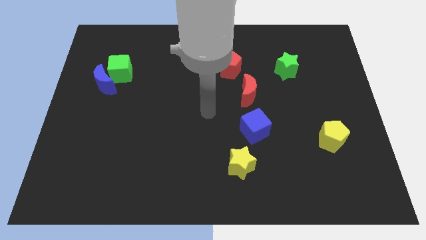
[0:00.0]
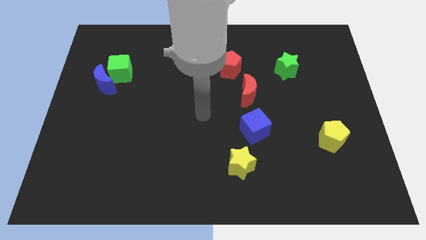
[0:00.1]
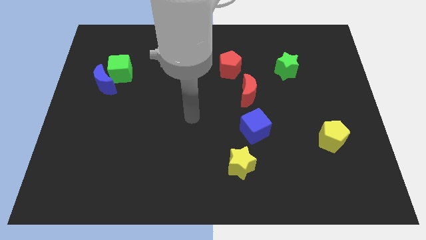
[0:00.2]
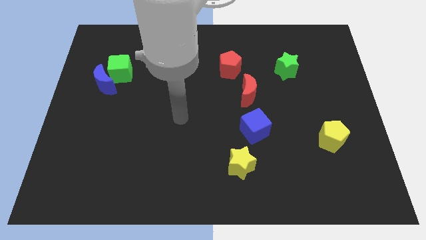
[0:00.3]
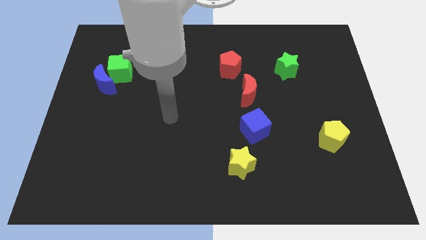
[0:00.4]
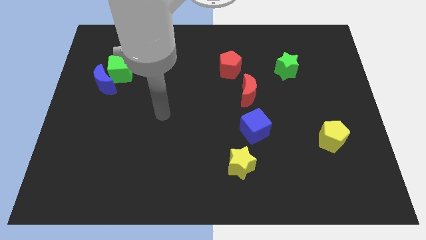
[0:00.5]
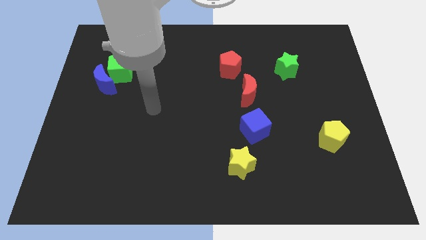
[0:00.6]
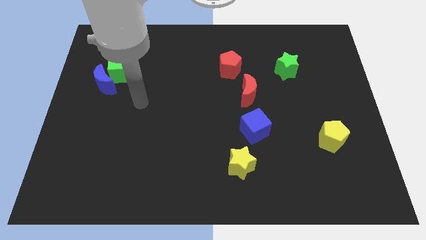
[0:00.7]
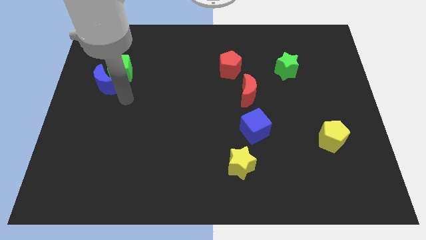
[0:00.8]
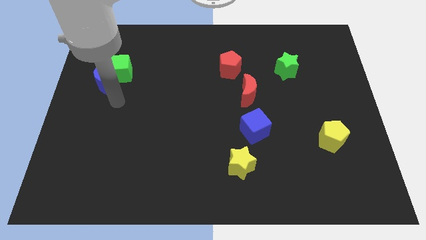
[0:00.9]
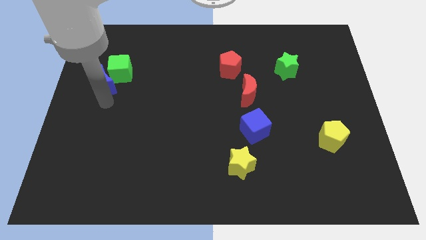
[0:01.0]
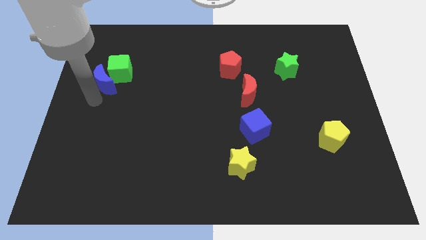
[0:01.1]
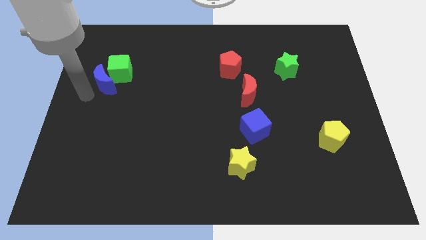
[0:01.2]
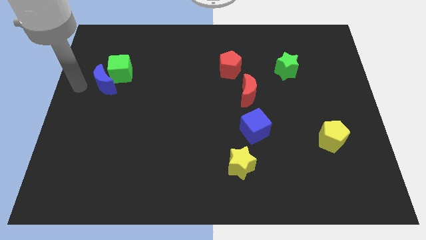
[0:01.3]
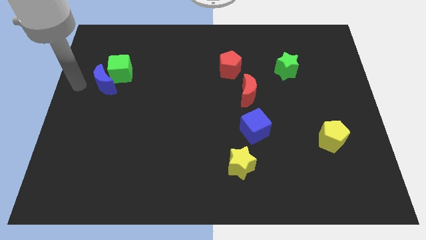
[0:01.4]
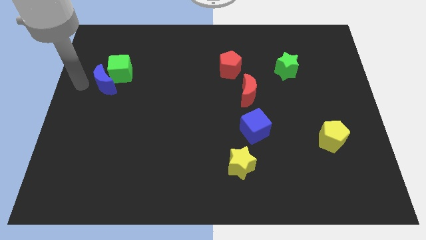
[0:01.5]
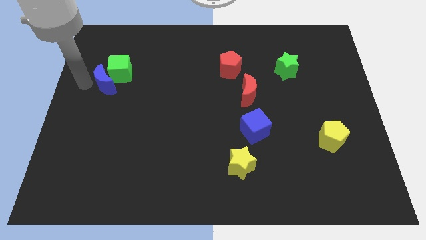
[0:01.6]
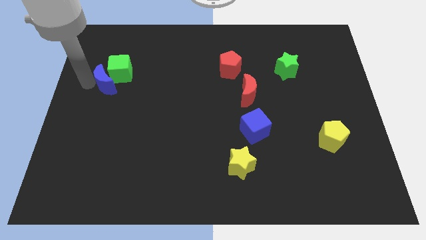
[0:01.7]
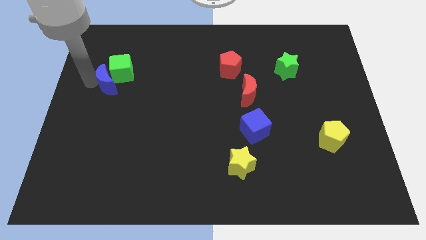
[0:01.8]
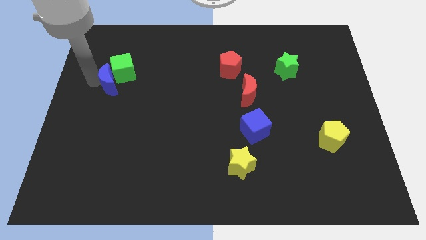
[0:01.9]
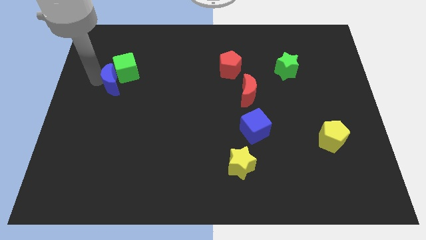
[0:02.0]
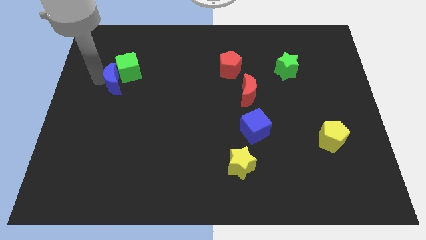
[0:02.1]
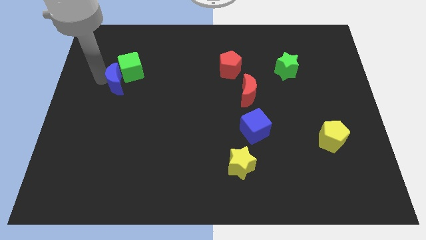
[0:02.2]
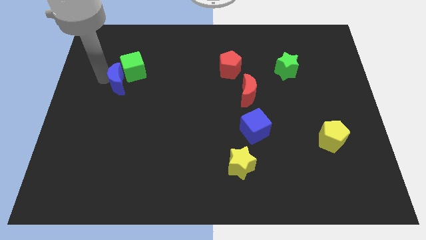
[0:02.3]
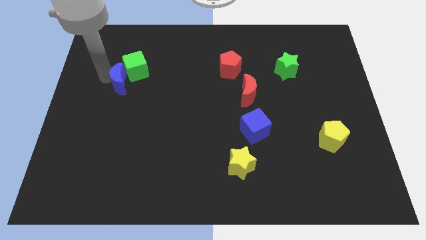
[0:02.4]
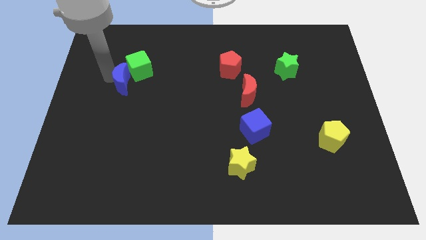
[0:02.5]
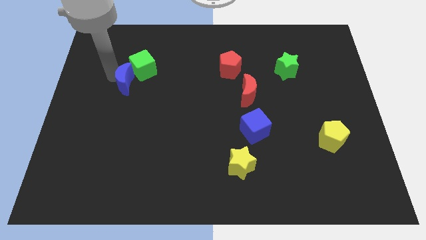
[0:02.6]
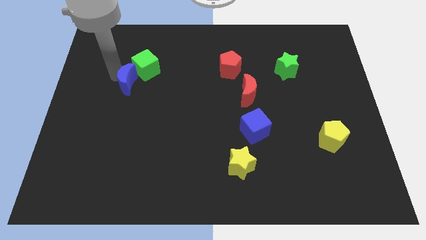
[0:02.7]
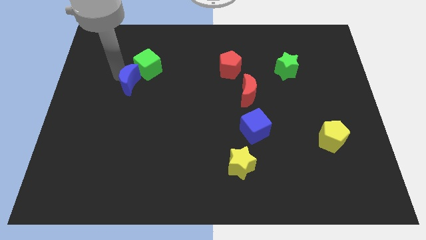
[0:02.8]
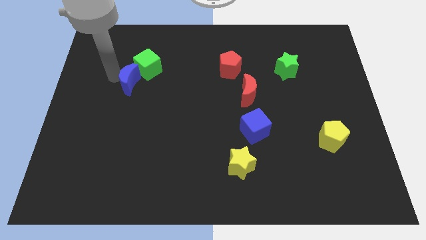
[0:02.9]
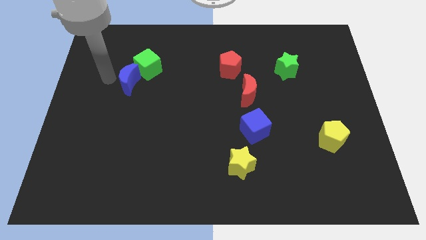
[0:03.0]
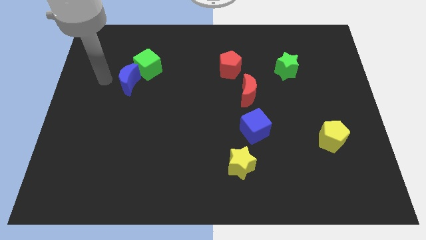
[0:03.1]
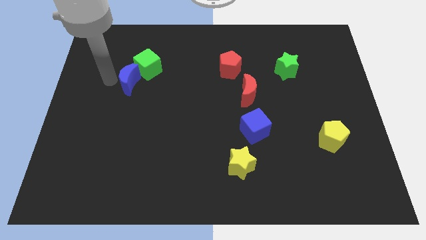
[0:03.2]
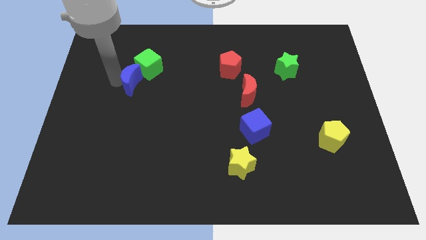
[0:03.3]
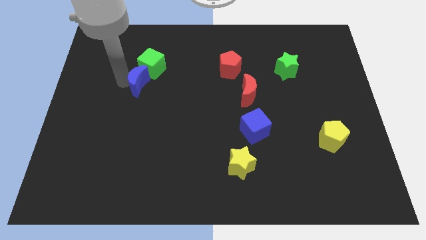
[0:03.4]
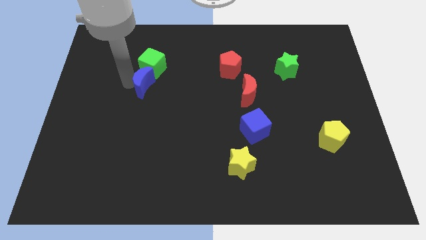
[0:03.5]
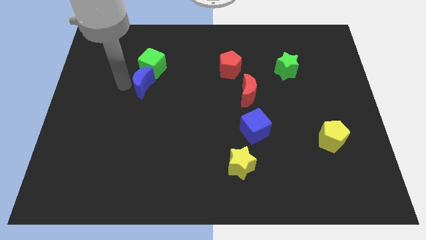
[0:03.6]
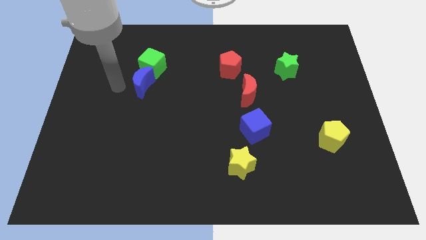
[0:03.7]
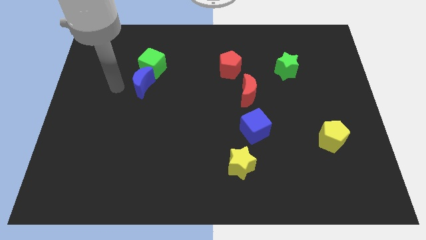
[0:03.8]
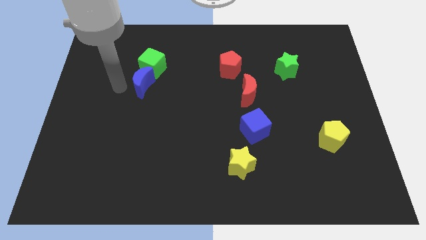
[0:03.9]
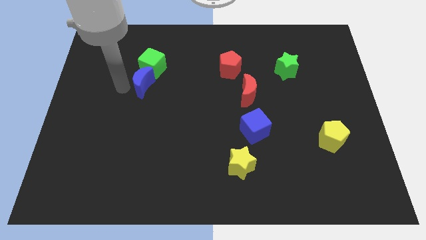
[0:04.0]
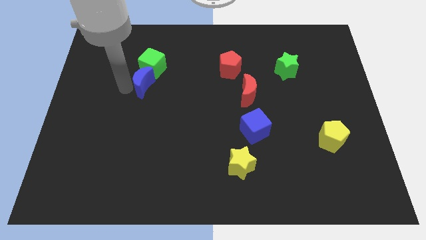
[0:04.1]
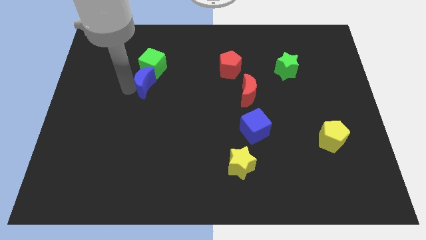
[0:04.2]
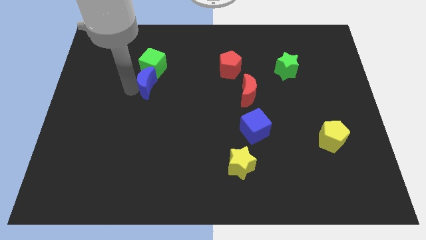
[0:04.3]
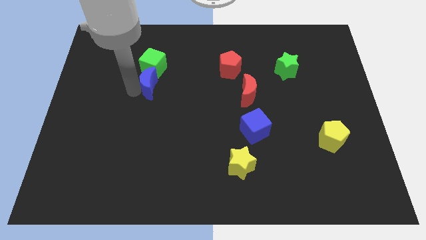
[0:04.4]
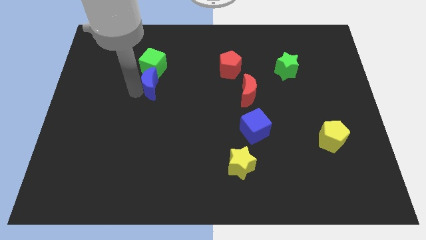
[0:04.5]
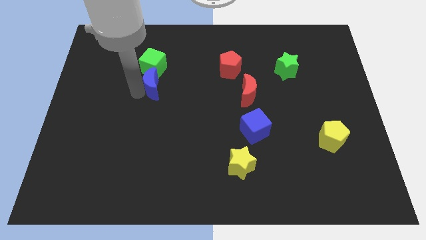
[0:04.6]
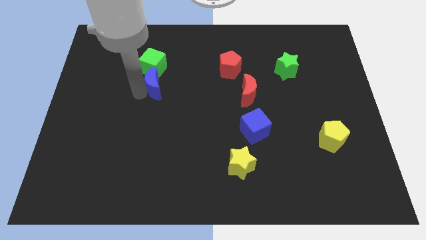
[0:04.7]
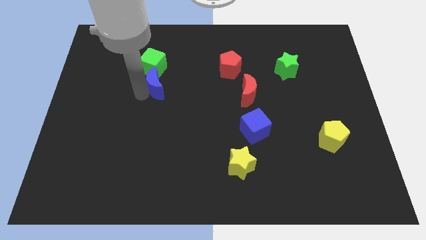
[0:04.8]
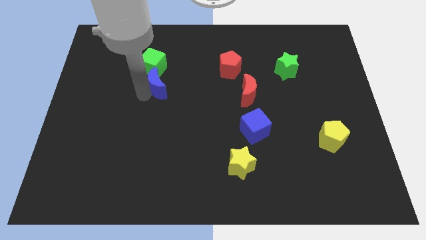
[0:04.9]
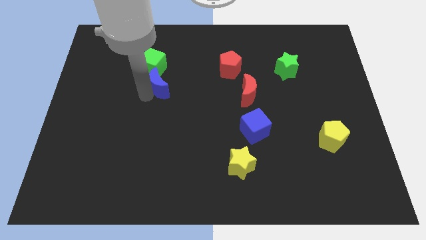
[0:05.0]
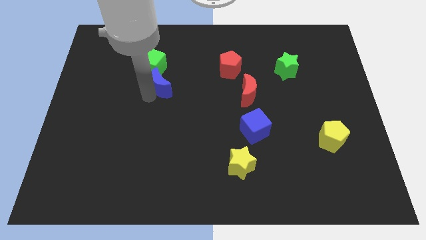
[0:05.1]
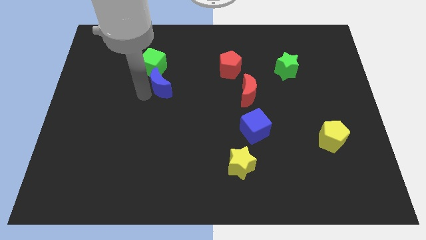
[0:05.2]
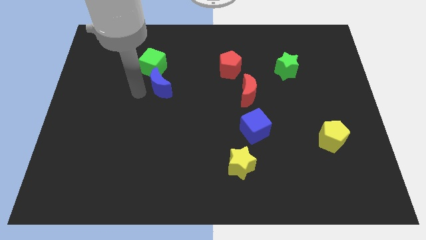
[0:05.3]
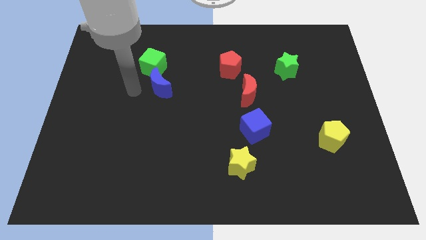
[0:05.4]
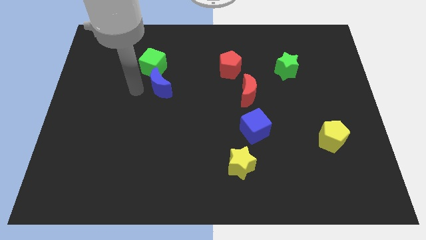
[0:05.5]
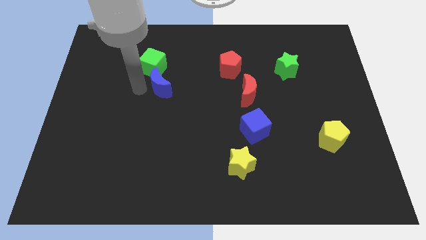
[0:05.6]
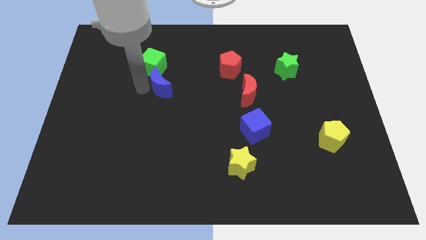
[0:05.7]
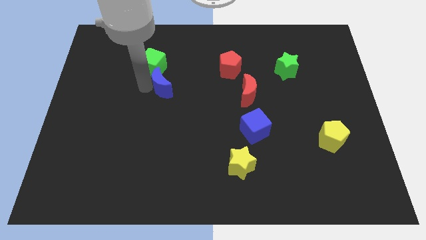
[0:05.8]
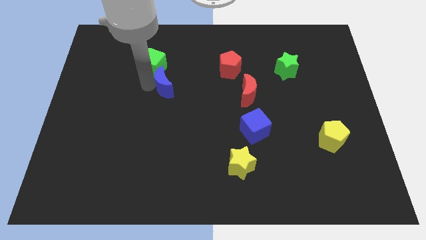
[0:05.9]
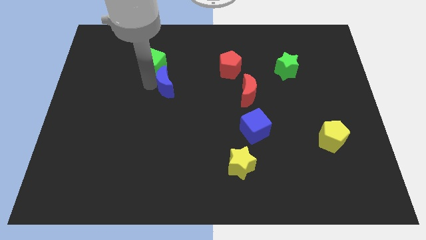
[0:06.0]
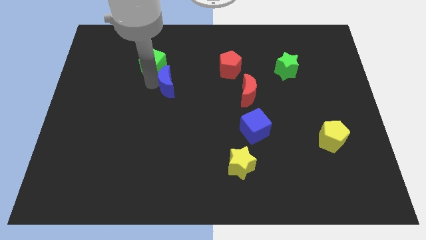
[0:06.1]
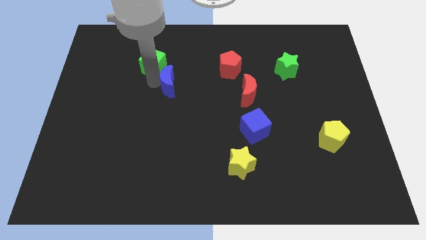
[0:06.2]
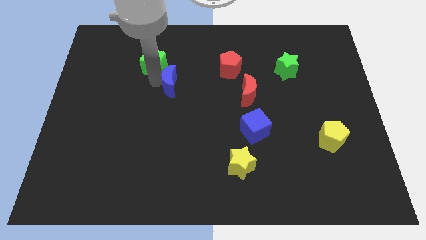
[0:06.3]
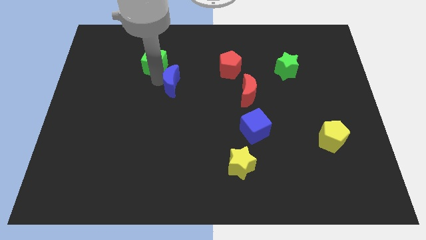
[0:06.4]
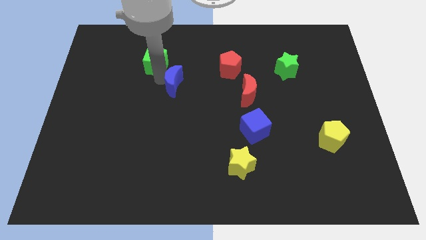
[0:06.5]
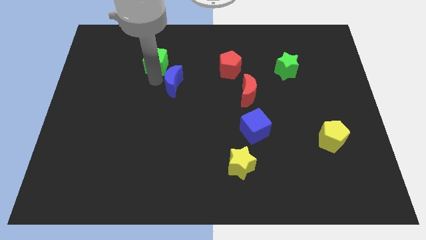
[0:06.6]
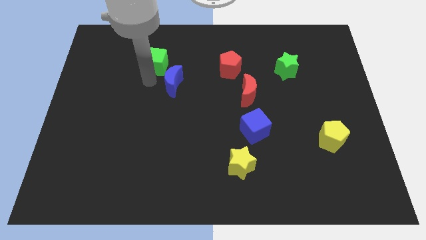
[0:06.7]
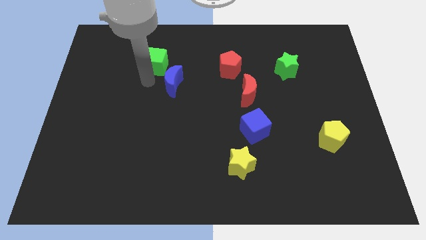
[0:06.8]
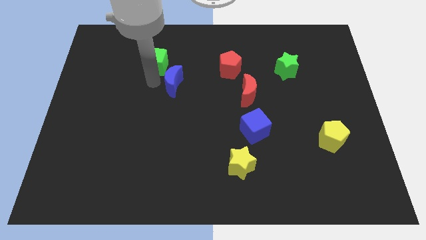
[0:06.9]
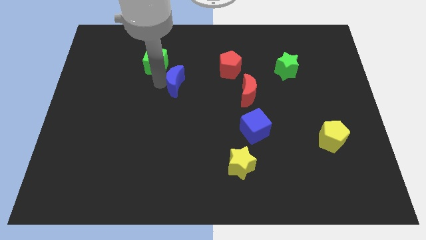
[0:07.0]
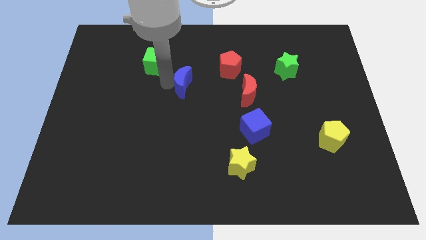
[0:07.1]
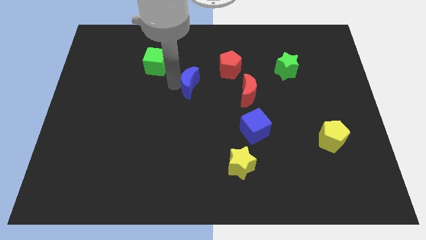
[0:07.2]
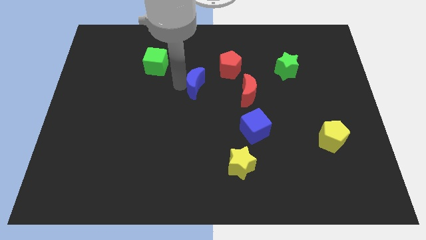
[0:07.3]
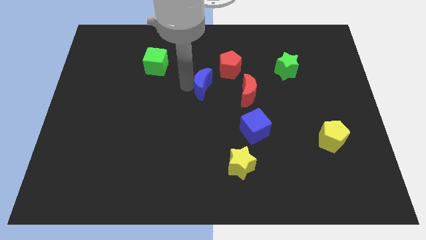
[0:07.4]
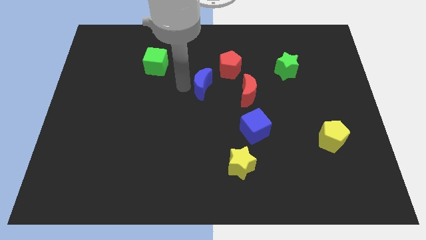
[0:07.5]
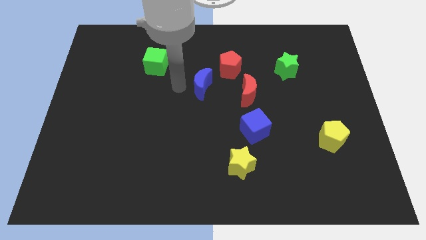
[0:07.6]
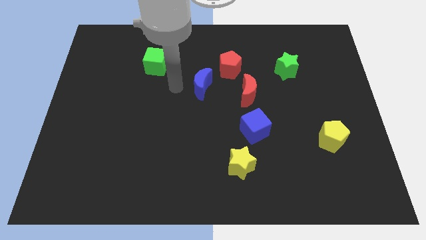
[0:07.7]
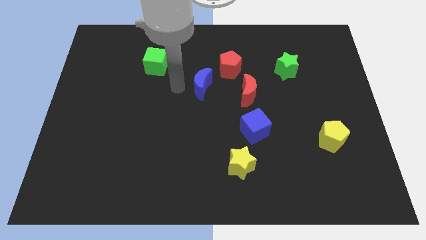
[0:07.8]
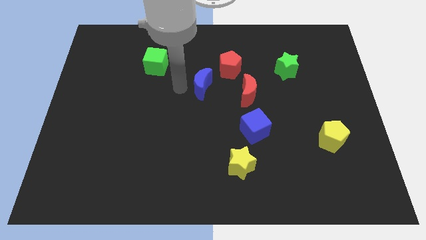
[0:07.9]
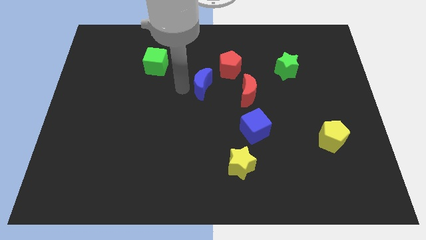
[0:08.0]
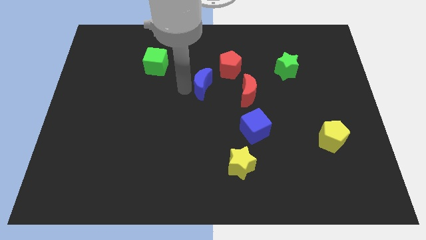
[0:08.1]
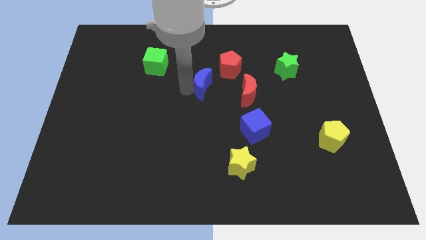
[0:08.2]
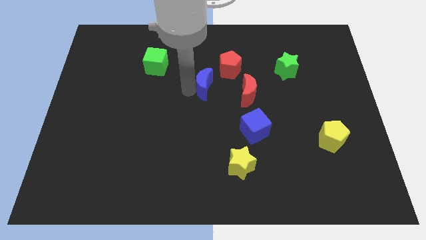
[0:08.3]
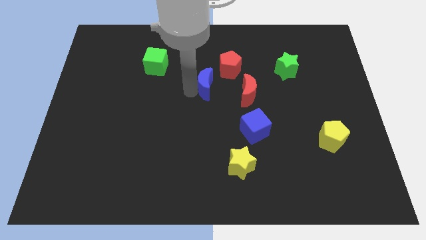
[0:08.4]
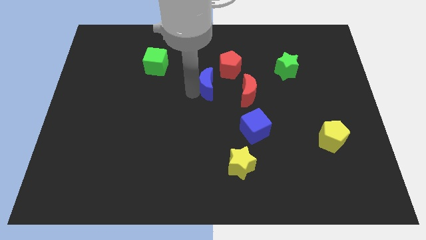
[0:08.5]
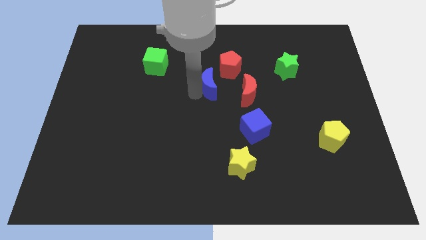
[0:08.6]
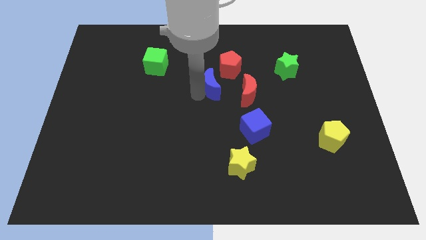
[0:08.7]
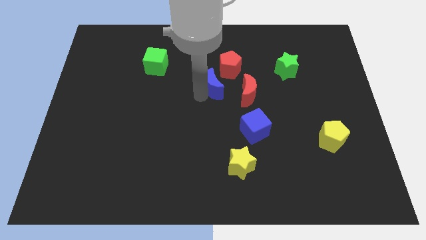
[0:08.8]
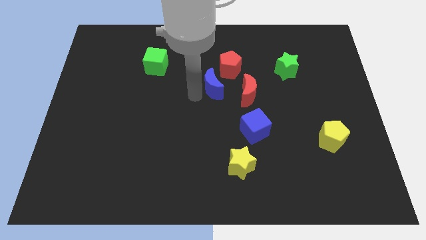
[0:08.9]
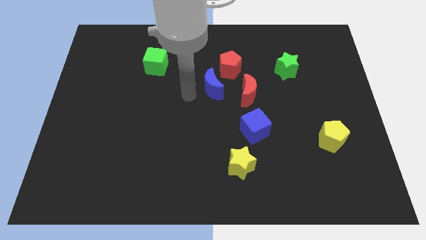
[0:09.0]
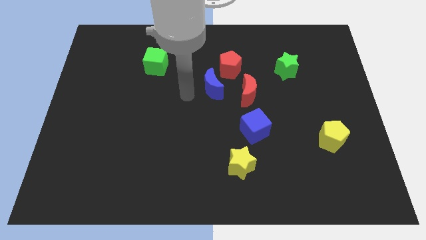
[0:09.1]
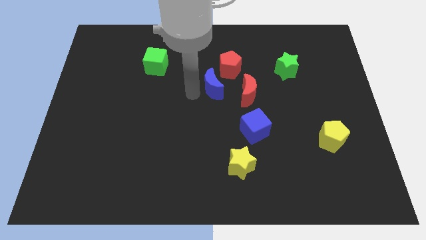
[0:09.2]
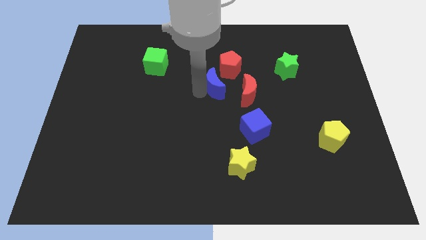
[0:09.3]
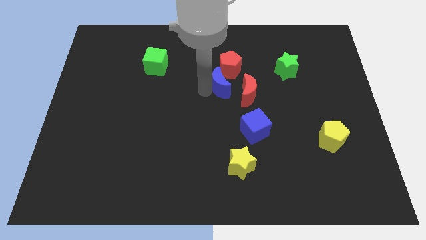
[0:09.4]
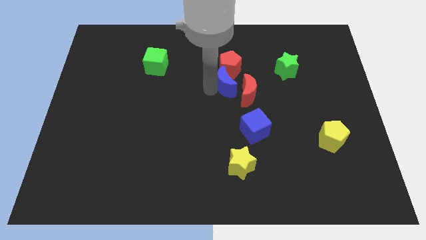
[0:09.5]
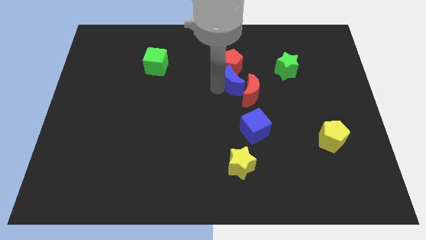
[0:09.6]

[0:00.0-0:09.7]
slide the blue moon above the blue cube
